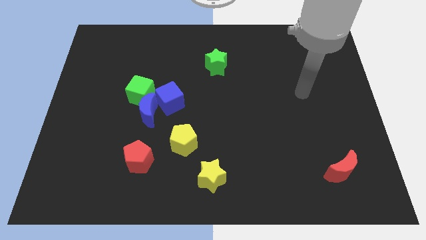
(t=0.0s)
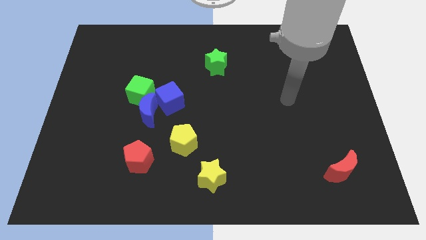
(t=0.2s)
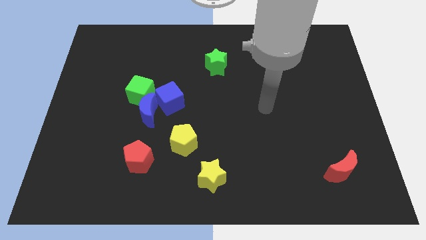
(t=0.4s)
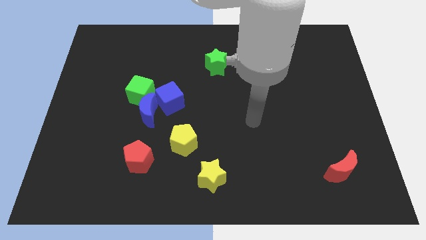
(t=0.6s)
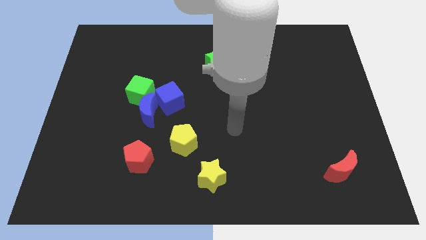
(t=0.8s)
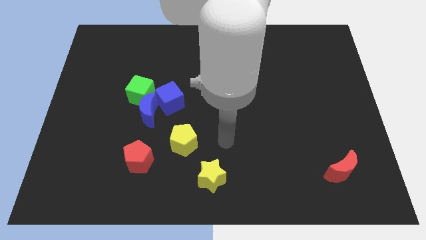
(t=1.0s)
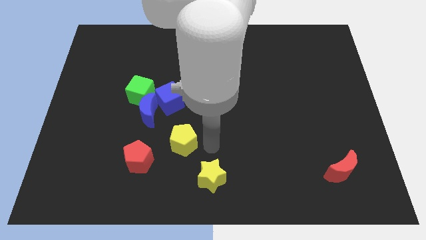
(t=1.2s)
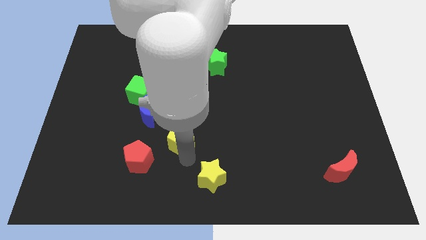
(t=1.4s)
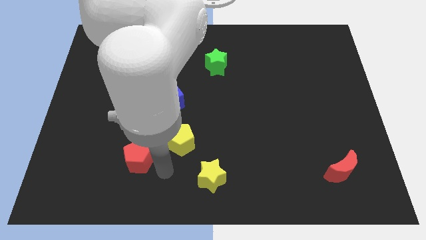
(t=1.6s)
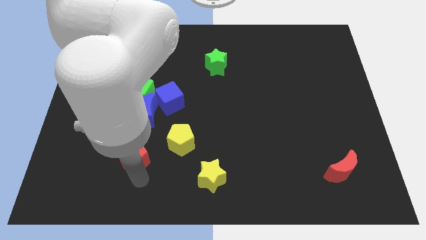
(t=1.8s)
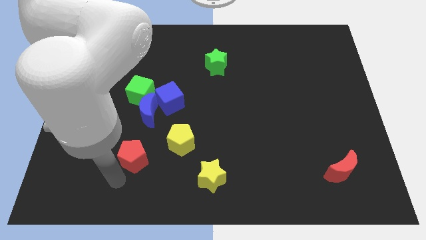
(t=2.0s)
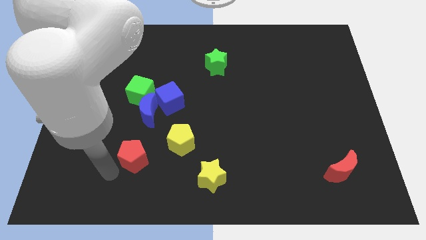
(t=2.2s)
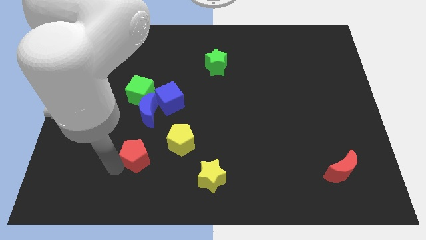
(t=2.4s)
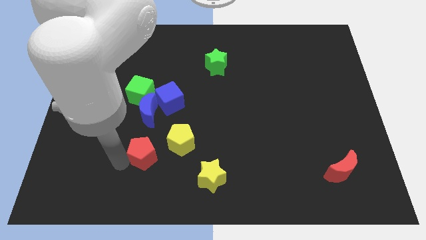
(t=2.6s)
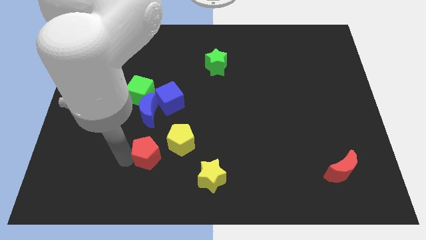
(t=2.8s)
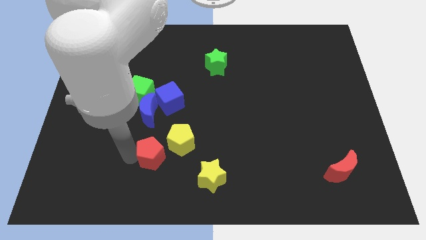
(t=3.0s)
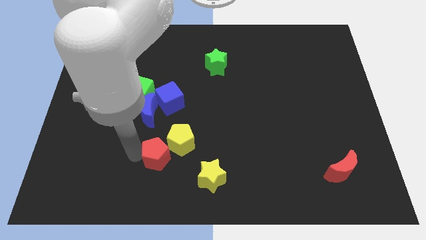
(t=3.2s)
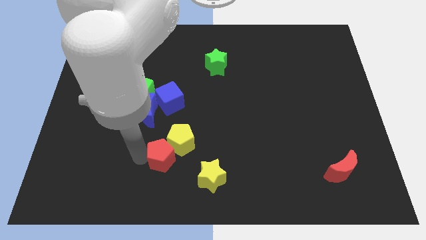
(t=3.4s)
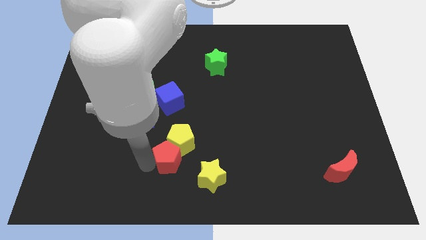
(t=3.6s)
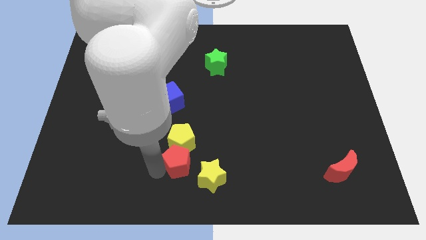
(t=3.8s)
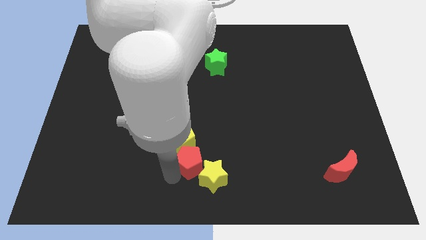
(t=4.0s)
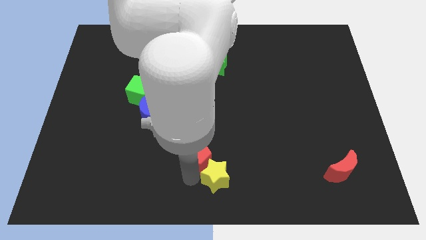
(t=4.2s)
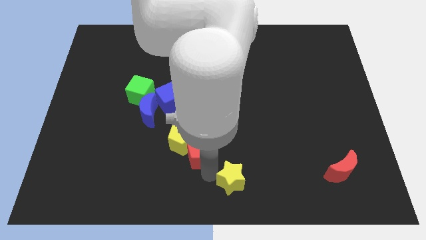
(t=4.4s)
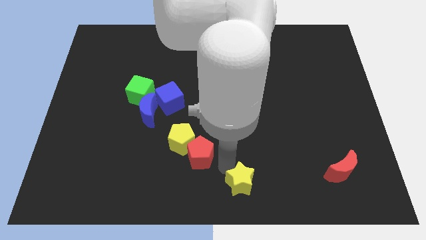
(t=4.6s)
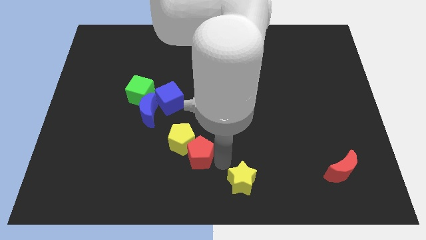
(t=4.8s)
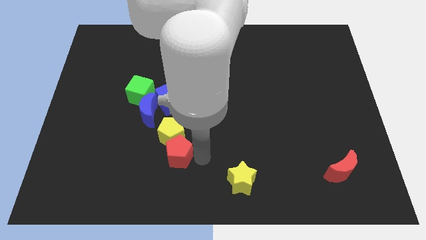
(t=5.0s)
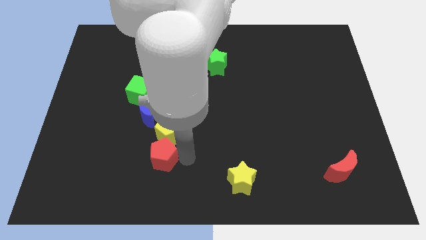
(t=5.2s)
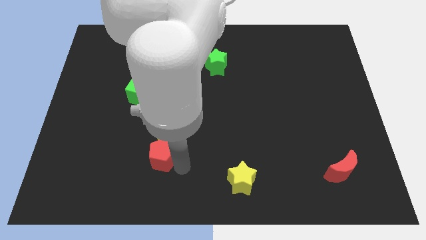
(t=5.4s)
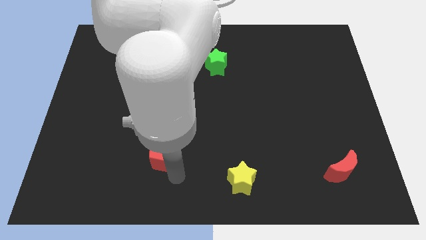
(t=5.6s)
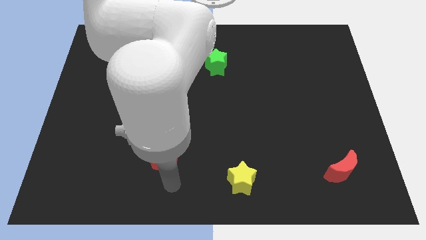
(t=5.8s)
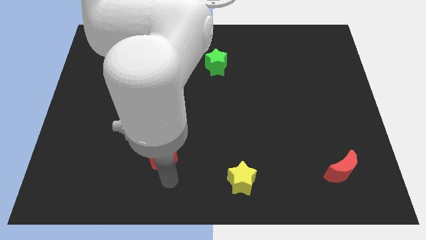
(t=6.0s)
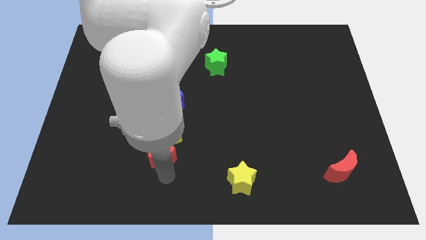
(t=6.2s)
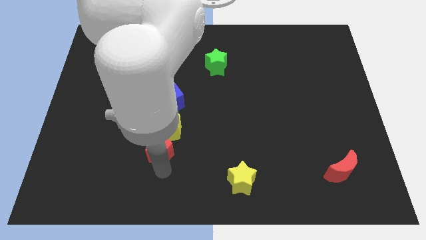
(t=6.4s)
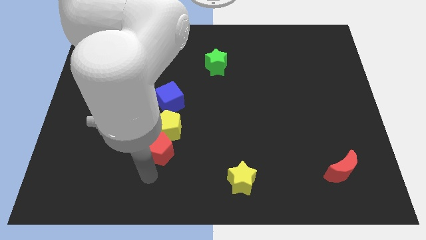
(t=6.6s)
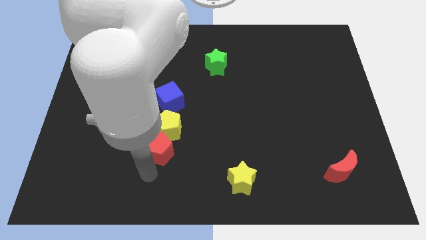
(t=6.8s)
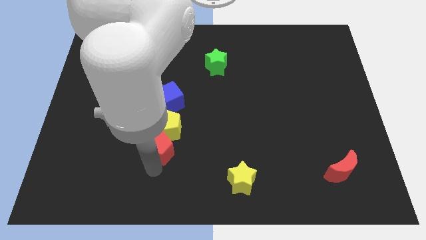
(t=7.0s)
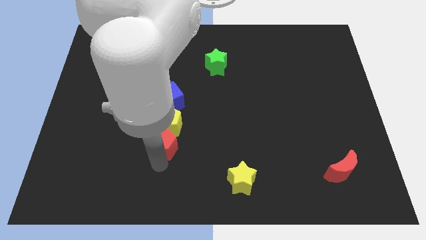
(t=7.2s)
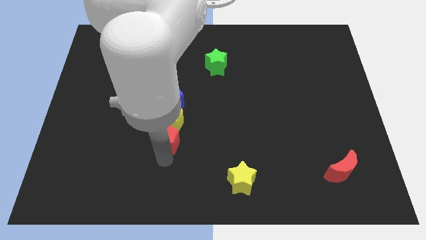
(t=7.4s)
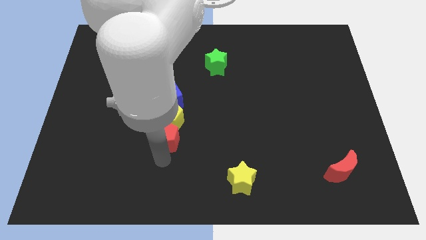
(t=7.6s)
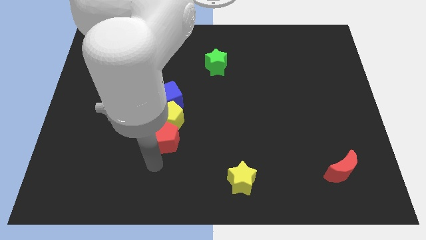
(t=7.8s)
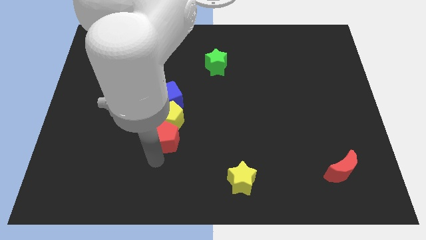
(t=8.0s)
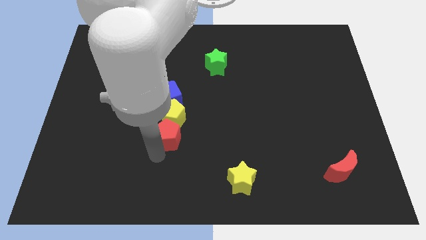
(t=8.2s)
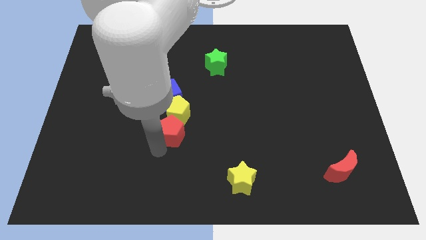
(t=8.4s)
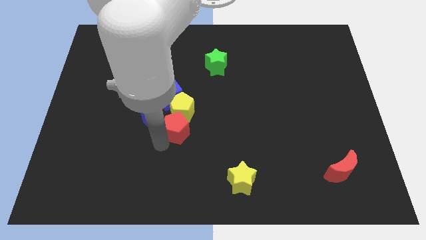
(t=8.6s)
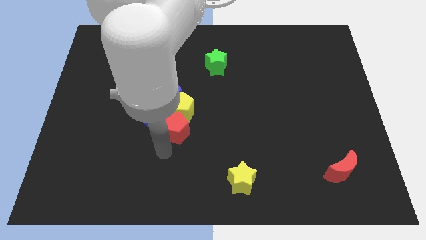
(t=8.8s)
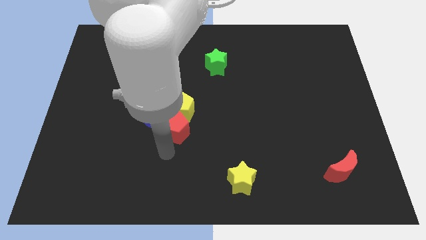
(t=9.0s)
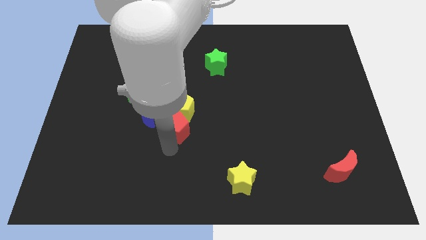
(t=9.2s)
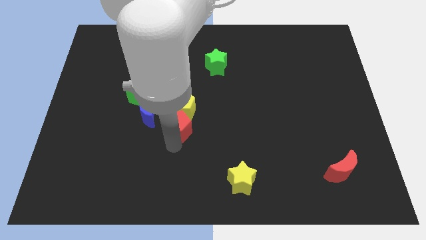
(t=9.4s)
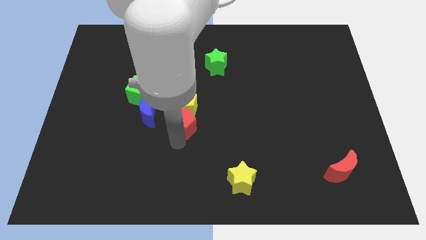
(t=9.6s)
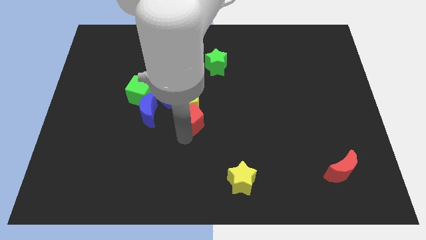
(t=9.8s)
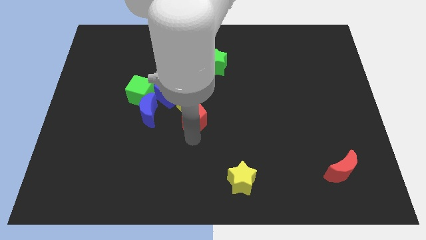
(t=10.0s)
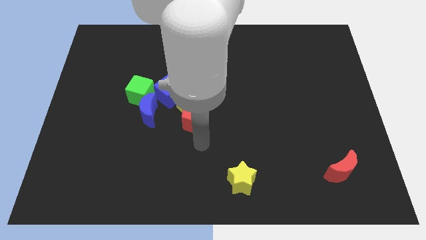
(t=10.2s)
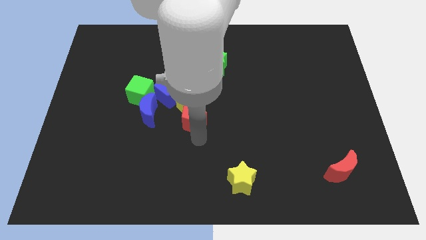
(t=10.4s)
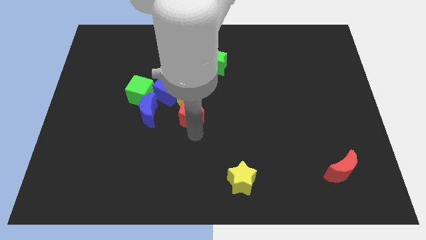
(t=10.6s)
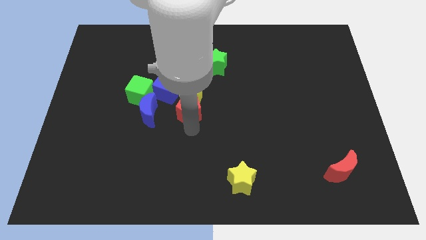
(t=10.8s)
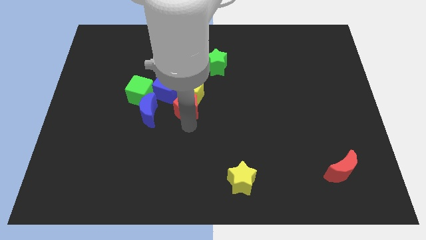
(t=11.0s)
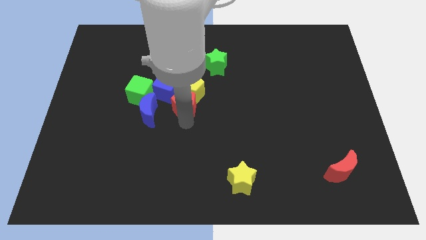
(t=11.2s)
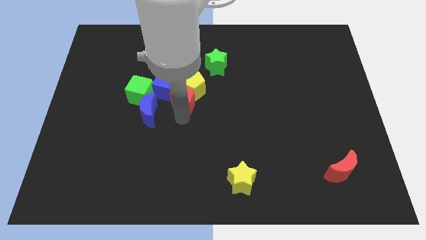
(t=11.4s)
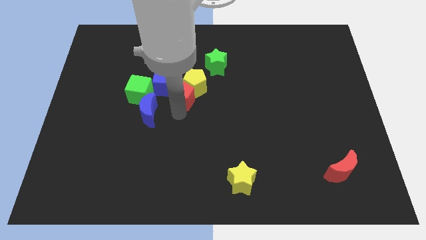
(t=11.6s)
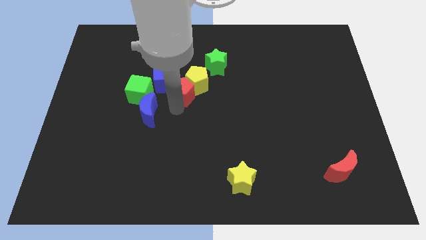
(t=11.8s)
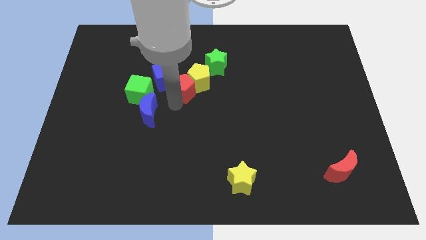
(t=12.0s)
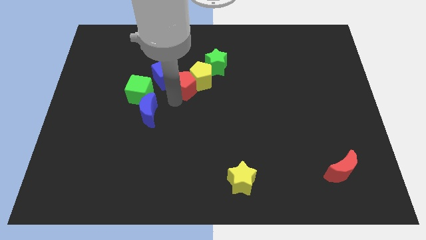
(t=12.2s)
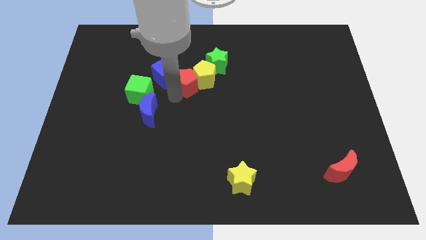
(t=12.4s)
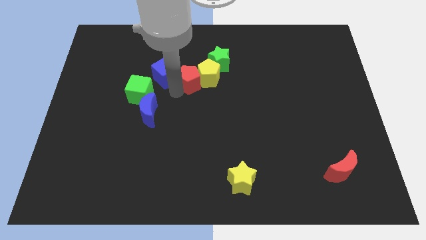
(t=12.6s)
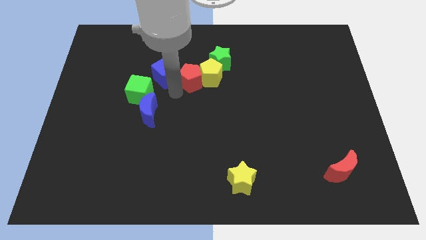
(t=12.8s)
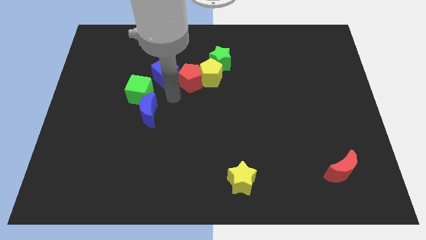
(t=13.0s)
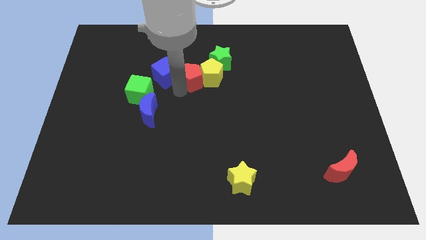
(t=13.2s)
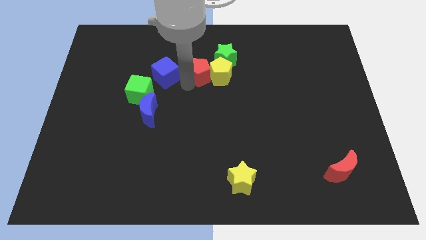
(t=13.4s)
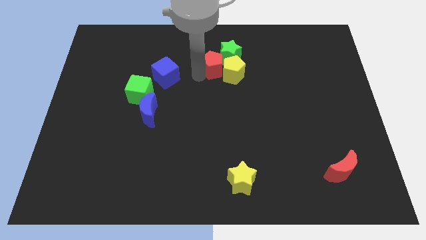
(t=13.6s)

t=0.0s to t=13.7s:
slide the red pentagon next to the green star

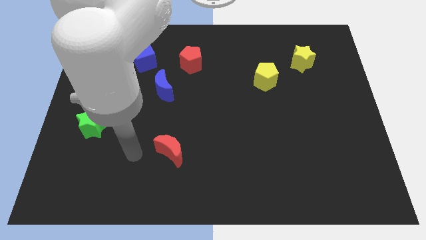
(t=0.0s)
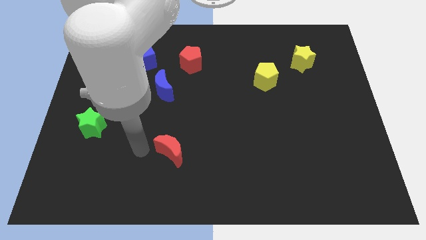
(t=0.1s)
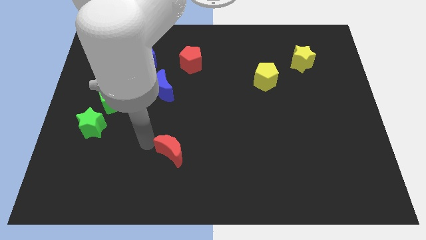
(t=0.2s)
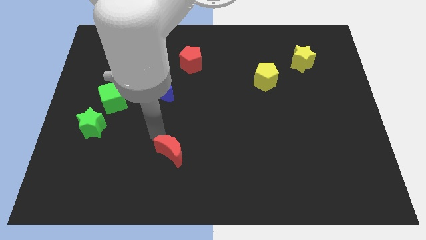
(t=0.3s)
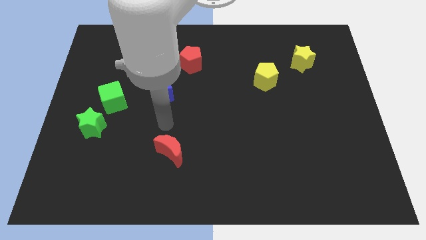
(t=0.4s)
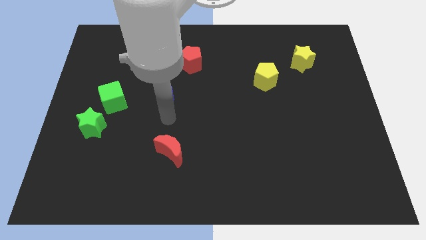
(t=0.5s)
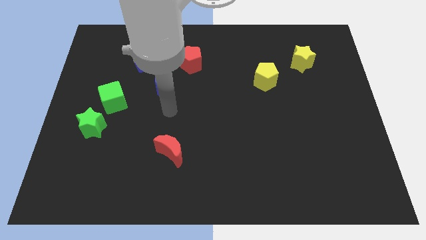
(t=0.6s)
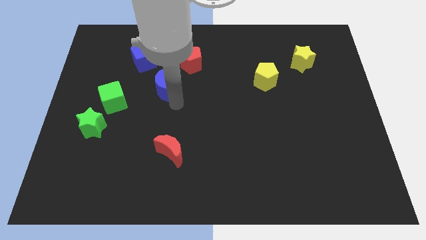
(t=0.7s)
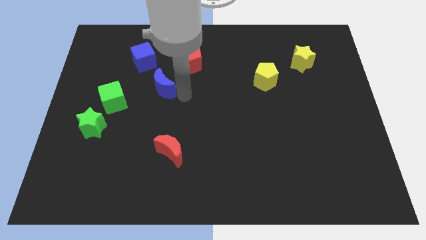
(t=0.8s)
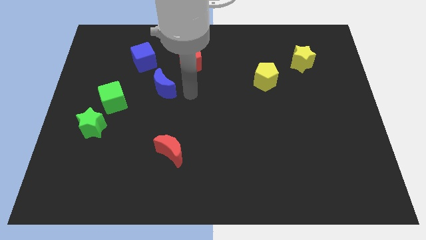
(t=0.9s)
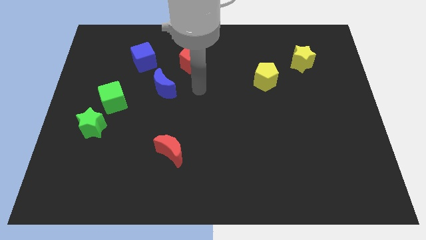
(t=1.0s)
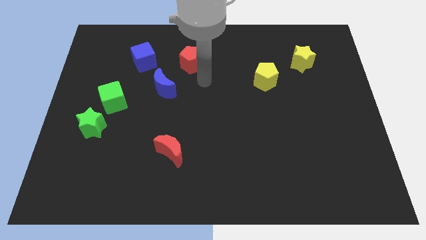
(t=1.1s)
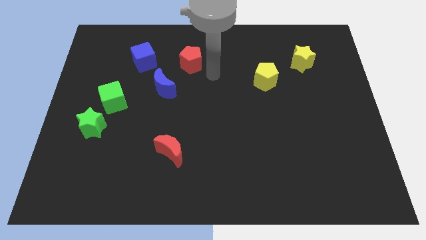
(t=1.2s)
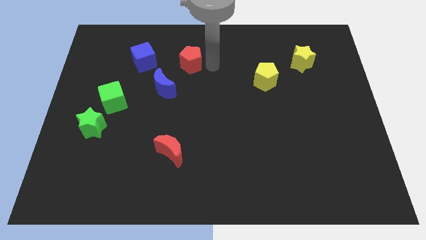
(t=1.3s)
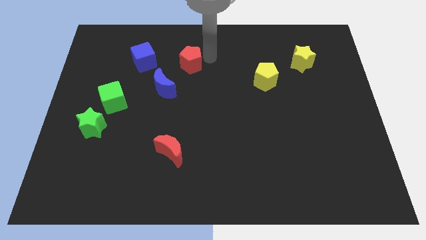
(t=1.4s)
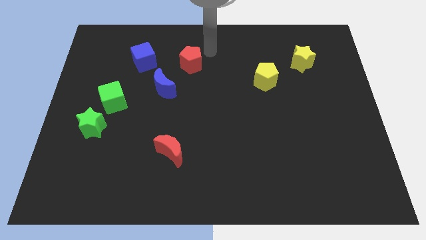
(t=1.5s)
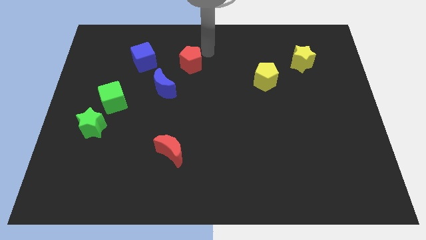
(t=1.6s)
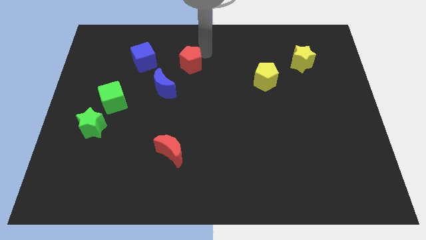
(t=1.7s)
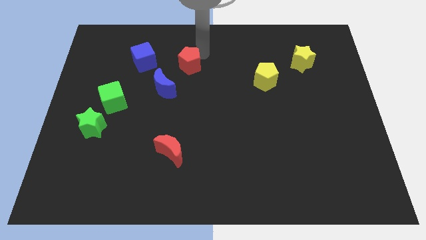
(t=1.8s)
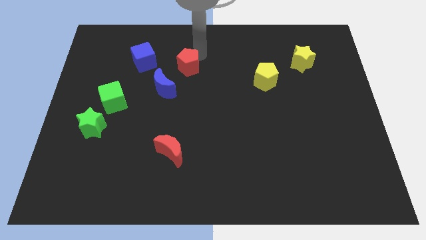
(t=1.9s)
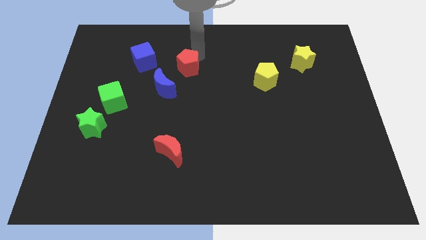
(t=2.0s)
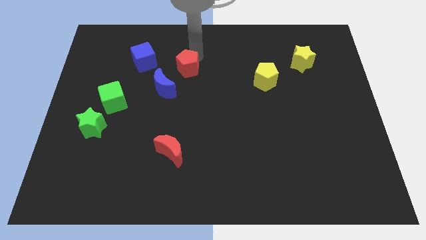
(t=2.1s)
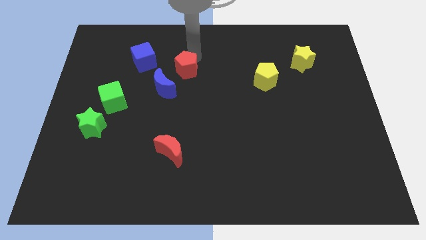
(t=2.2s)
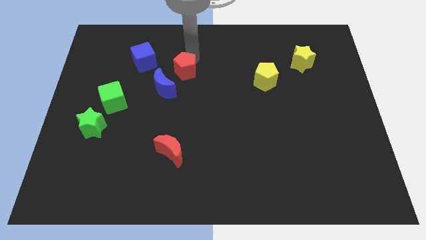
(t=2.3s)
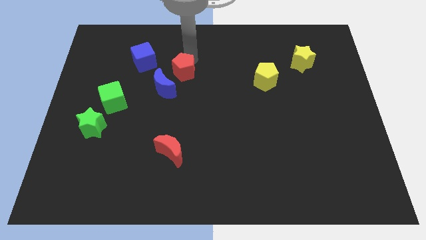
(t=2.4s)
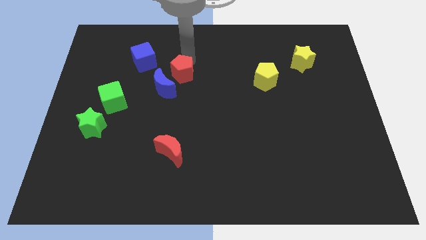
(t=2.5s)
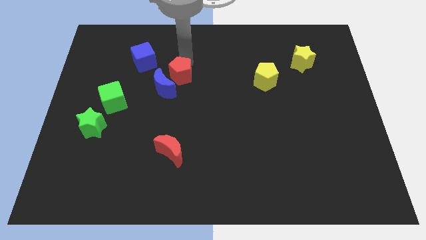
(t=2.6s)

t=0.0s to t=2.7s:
push the red pentagon towards the blue moon
